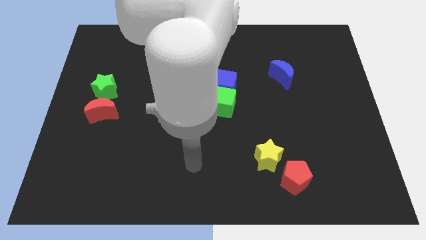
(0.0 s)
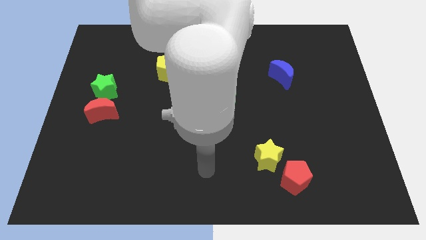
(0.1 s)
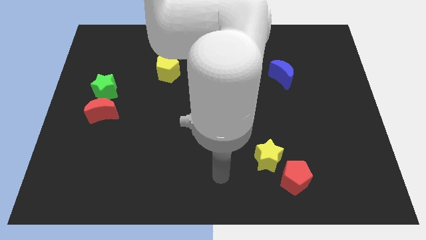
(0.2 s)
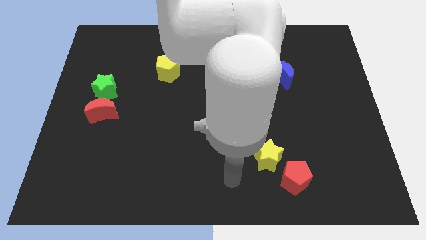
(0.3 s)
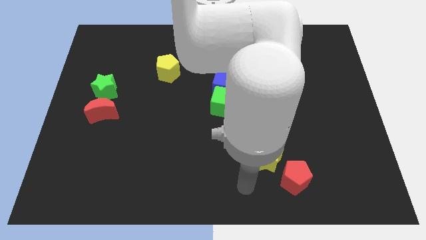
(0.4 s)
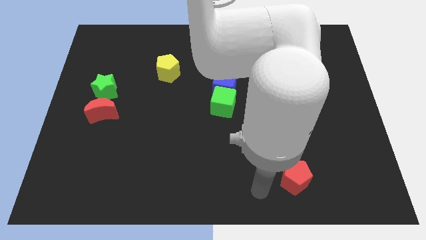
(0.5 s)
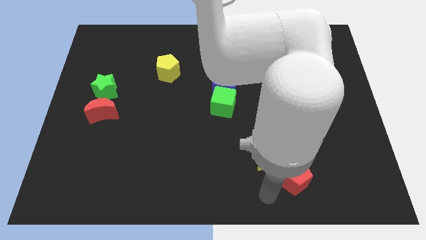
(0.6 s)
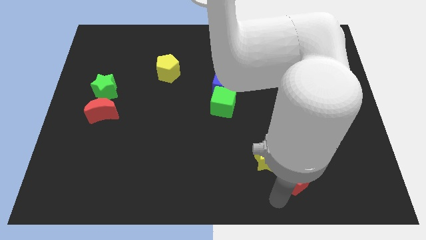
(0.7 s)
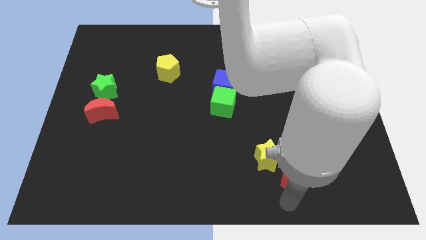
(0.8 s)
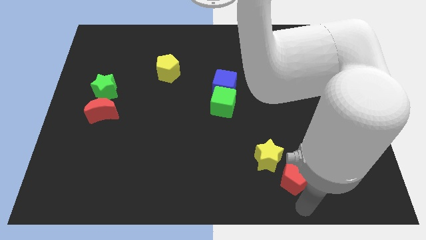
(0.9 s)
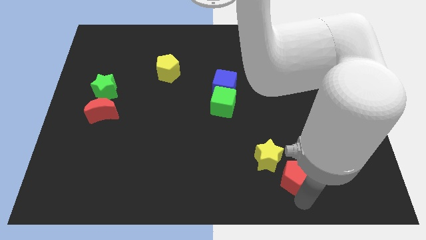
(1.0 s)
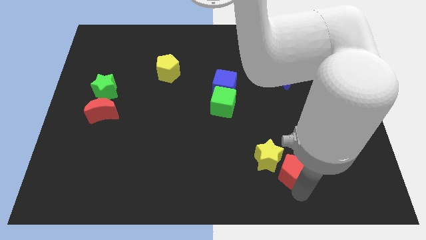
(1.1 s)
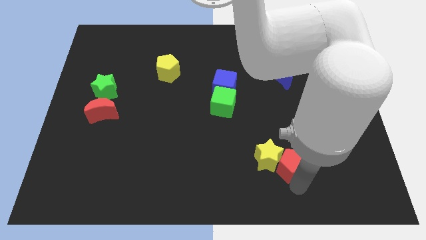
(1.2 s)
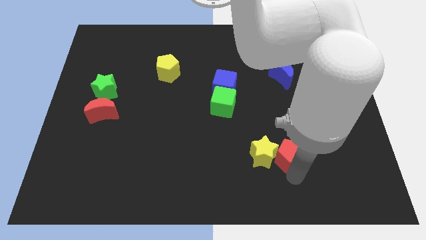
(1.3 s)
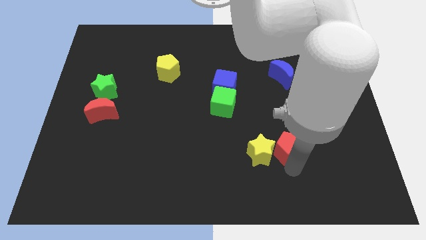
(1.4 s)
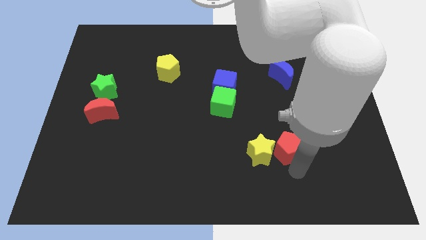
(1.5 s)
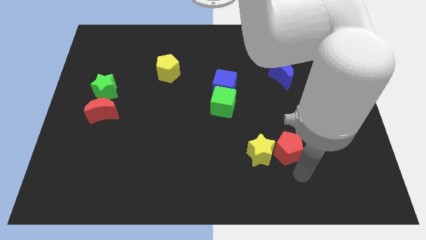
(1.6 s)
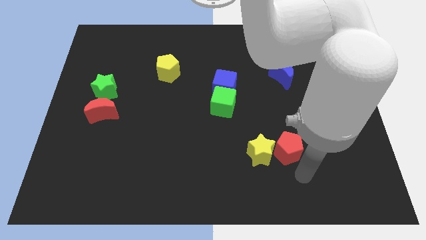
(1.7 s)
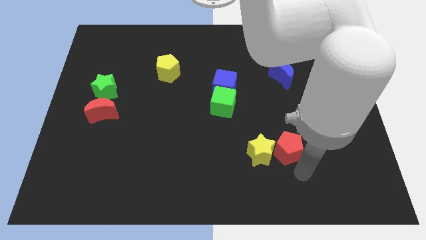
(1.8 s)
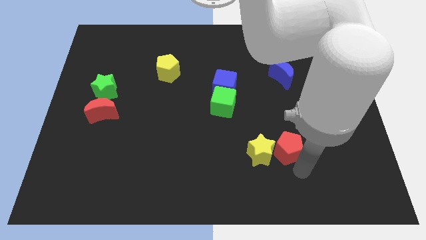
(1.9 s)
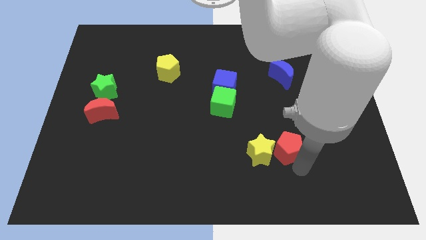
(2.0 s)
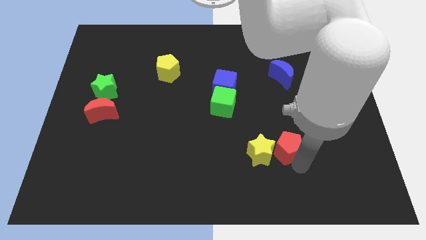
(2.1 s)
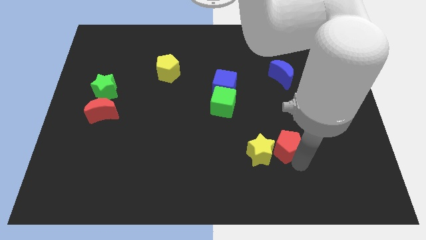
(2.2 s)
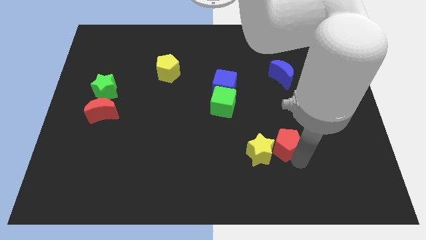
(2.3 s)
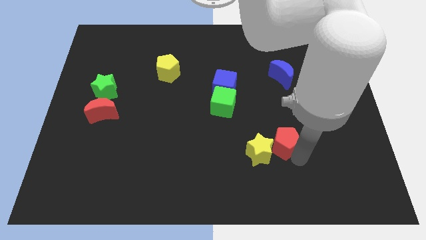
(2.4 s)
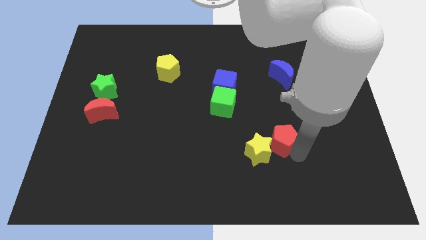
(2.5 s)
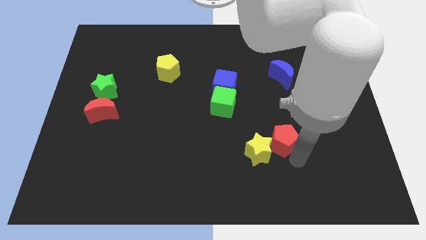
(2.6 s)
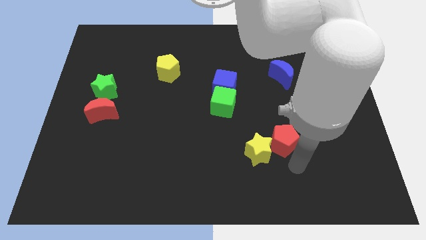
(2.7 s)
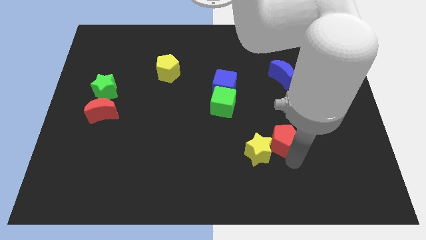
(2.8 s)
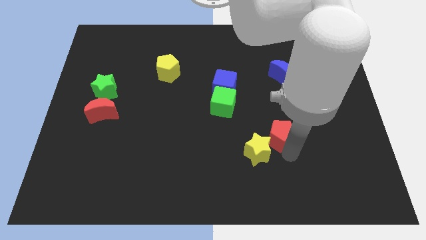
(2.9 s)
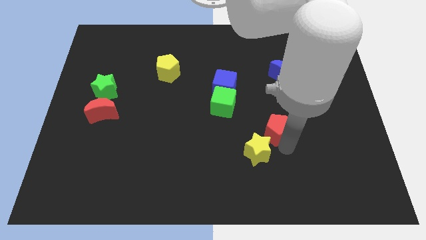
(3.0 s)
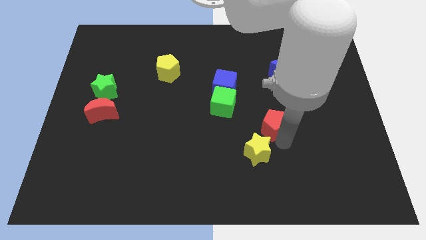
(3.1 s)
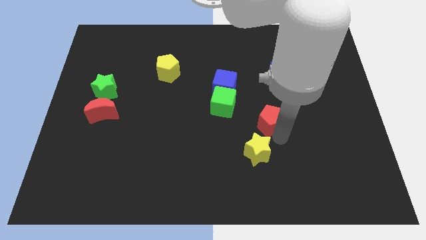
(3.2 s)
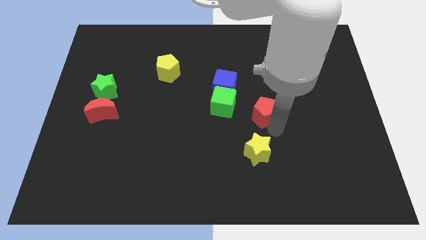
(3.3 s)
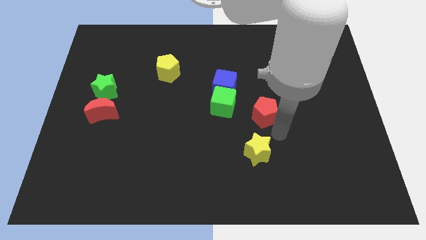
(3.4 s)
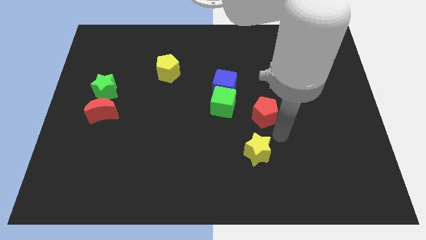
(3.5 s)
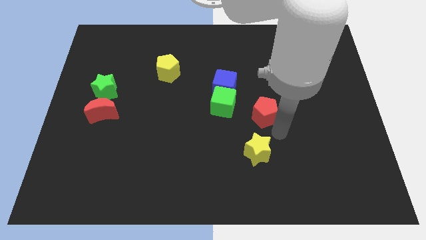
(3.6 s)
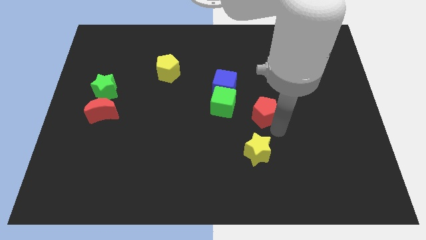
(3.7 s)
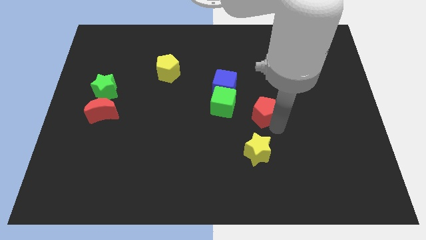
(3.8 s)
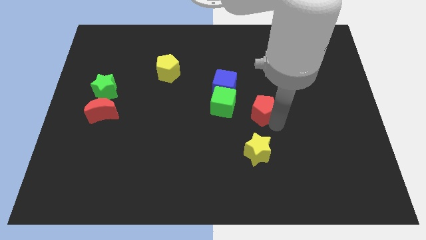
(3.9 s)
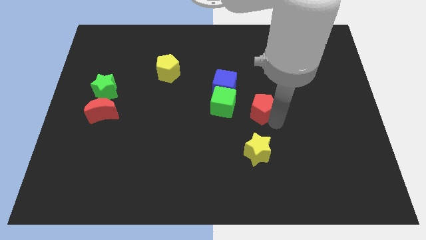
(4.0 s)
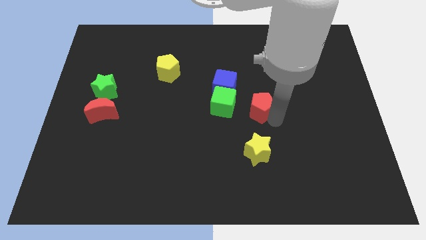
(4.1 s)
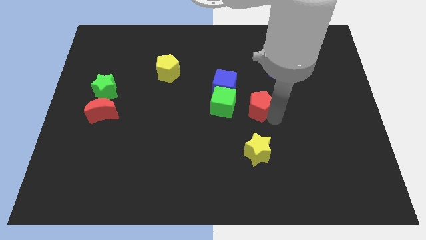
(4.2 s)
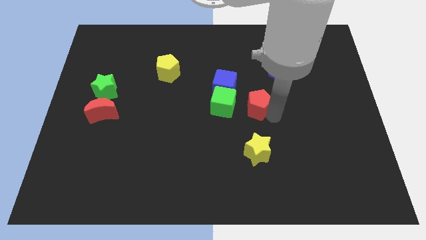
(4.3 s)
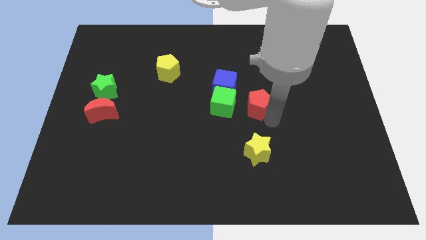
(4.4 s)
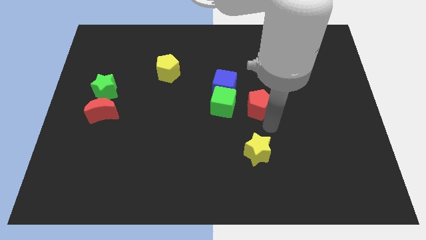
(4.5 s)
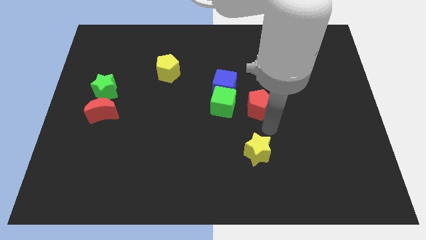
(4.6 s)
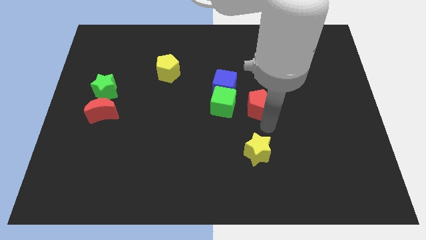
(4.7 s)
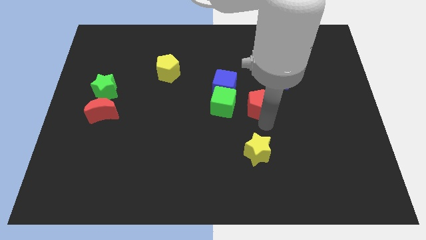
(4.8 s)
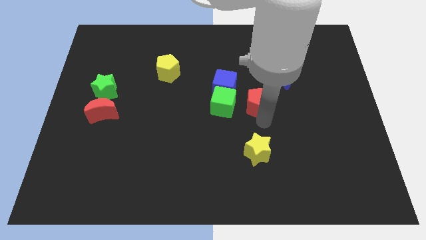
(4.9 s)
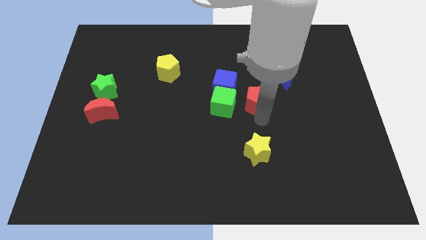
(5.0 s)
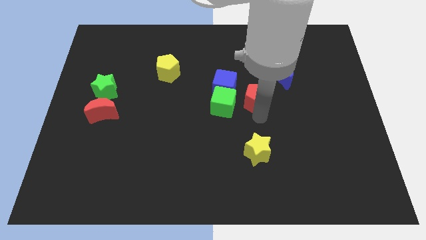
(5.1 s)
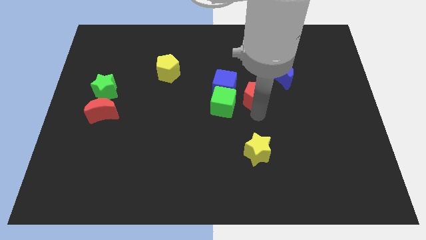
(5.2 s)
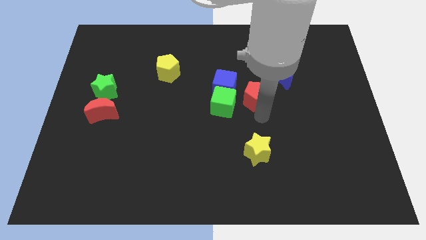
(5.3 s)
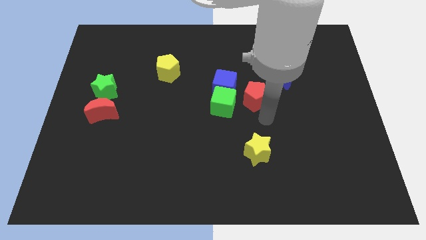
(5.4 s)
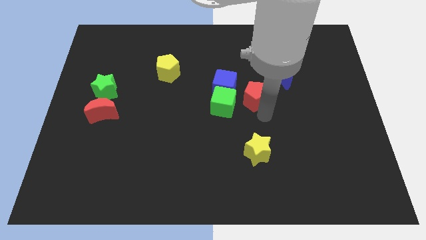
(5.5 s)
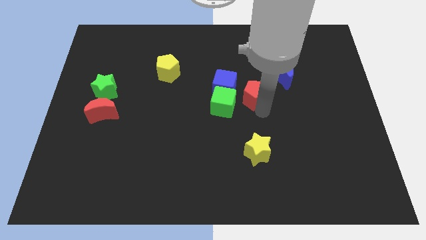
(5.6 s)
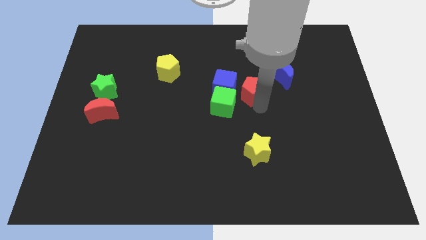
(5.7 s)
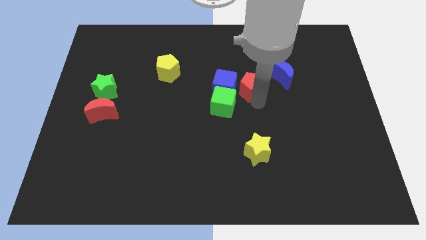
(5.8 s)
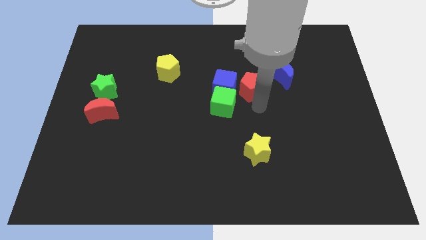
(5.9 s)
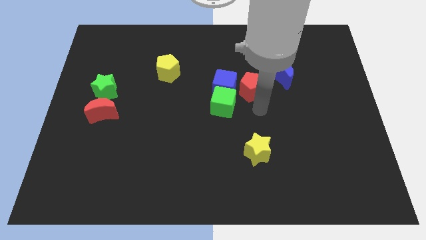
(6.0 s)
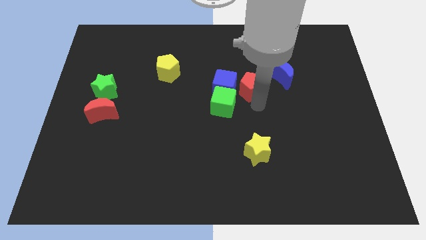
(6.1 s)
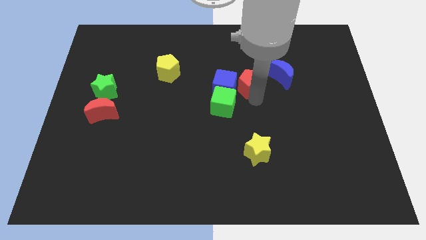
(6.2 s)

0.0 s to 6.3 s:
slide the red pentagon to the top right side of the blue cube

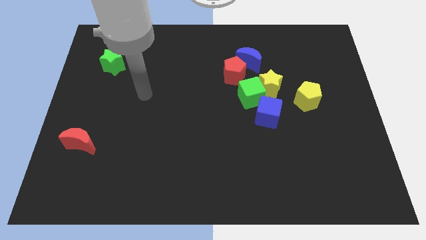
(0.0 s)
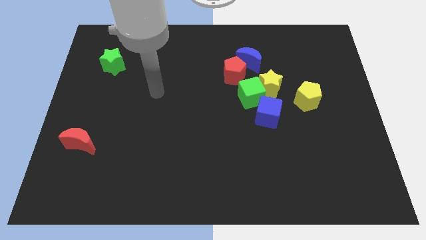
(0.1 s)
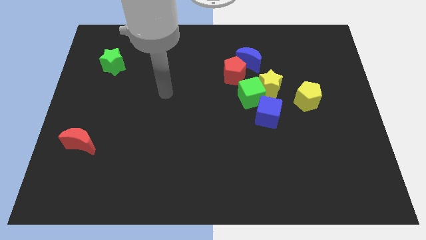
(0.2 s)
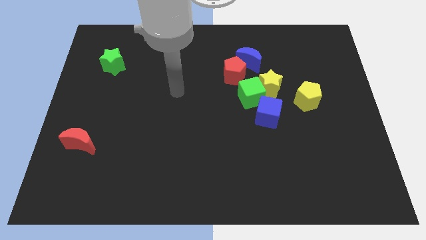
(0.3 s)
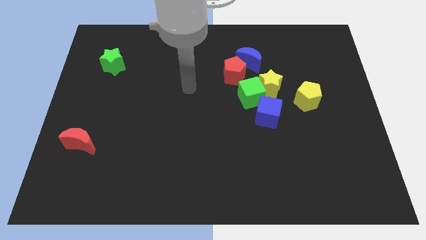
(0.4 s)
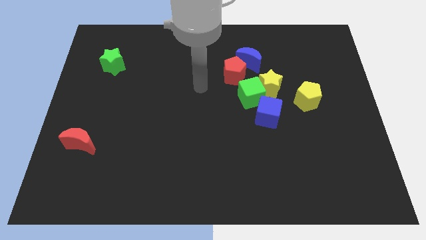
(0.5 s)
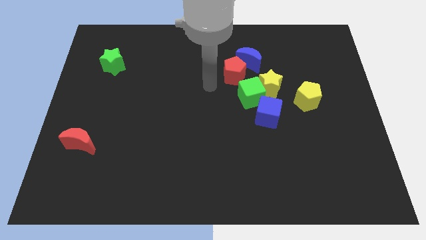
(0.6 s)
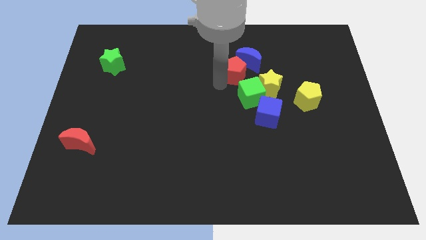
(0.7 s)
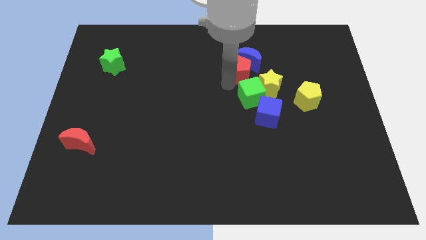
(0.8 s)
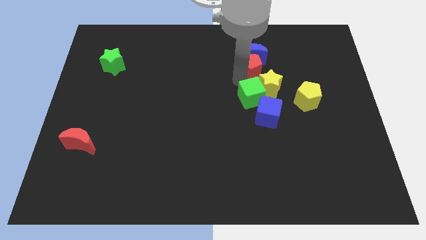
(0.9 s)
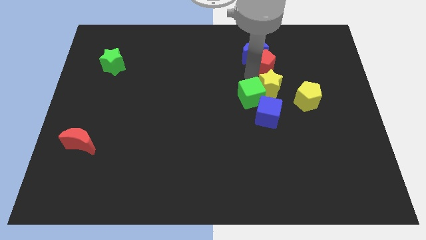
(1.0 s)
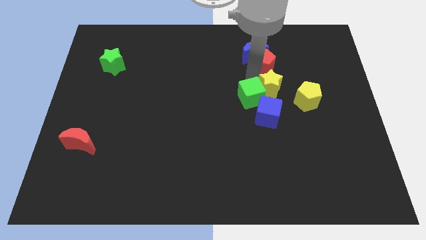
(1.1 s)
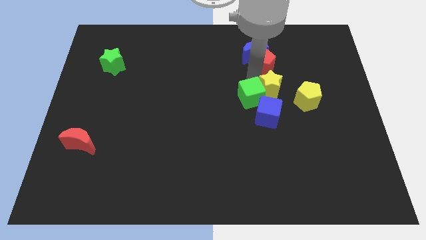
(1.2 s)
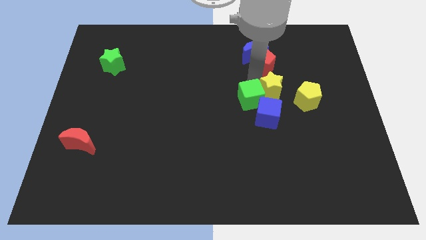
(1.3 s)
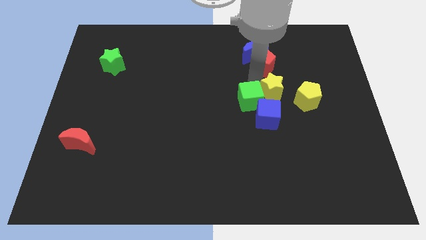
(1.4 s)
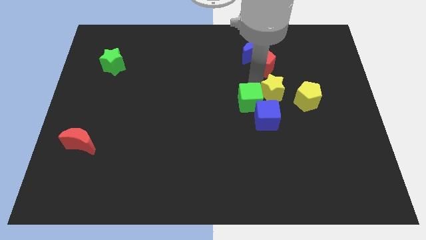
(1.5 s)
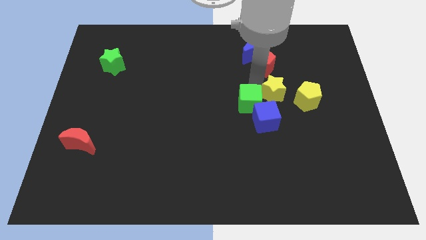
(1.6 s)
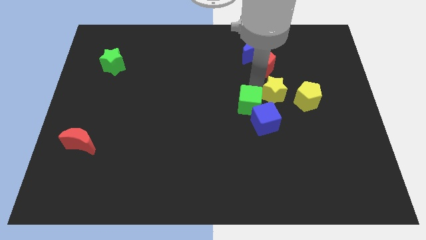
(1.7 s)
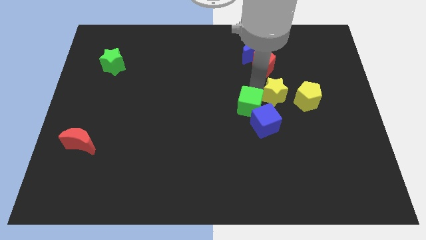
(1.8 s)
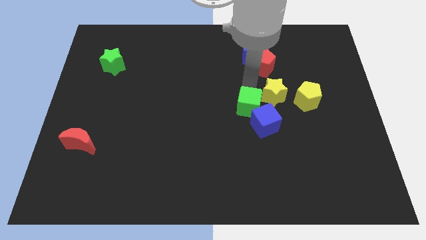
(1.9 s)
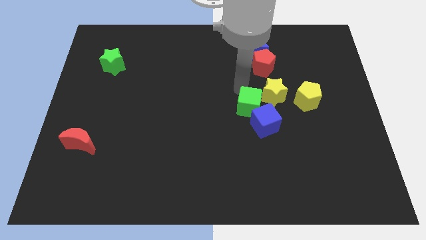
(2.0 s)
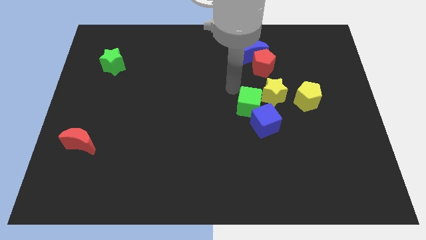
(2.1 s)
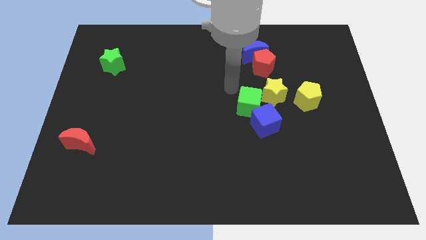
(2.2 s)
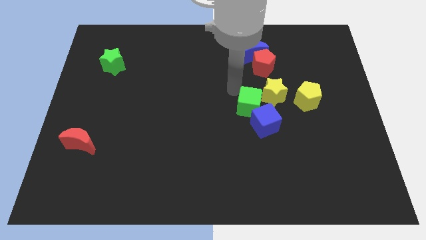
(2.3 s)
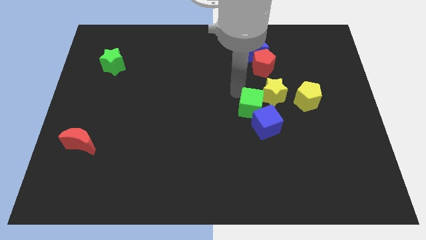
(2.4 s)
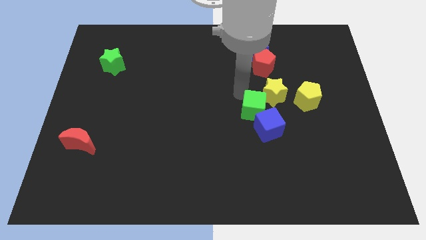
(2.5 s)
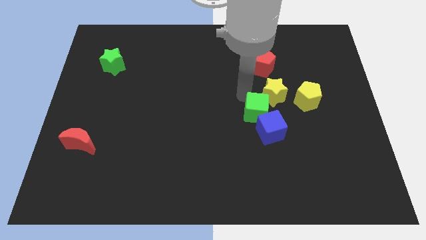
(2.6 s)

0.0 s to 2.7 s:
slide the green cube below the yellow star
